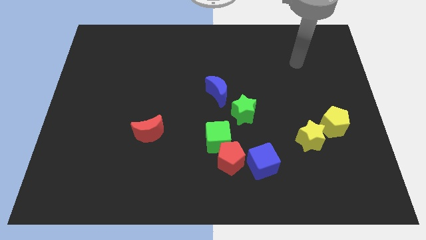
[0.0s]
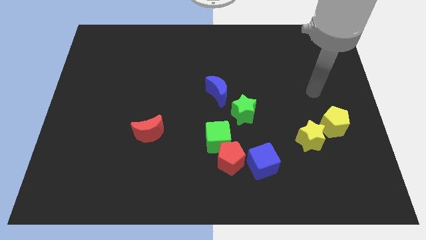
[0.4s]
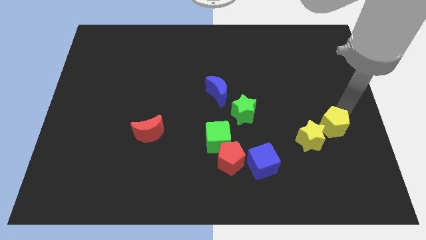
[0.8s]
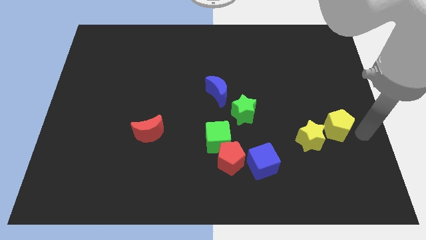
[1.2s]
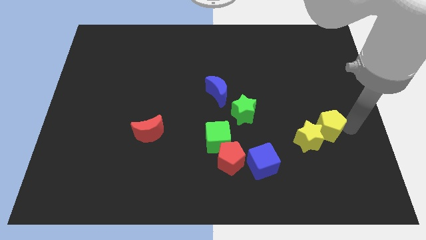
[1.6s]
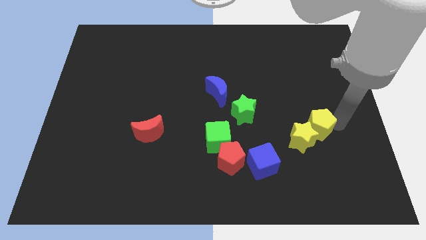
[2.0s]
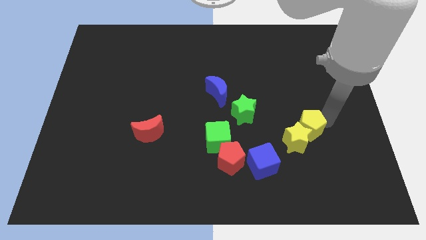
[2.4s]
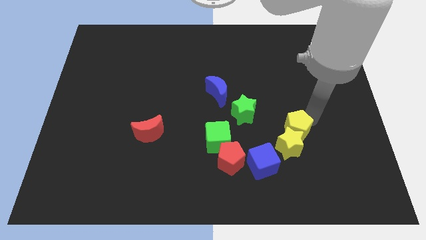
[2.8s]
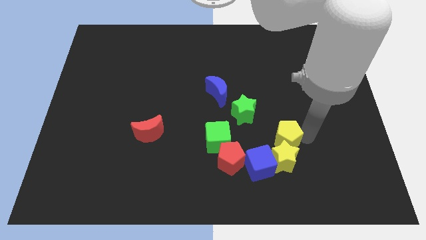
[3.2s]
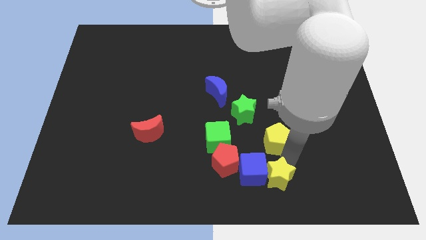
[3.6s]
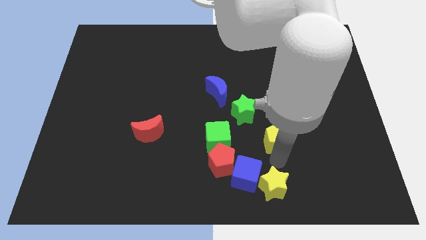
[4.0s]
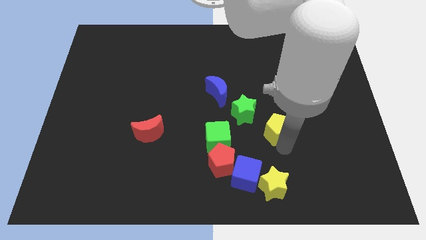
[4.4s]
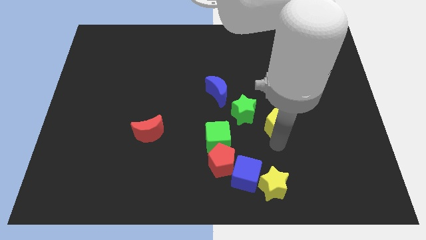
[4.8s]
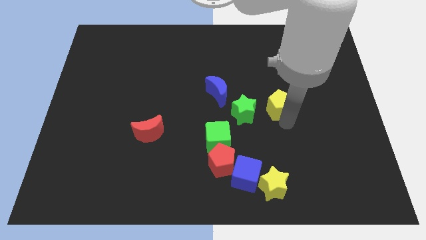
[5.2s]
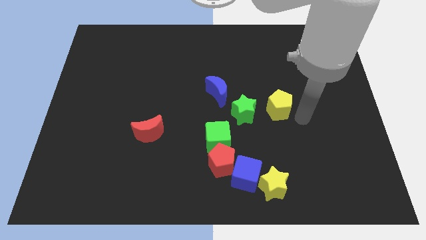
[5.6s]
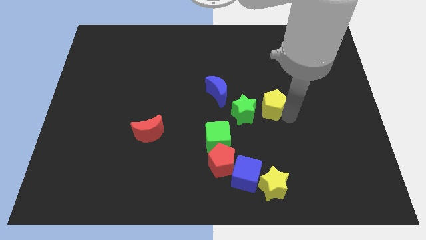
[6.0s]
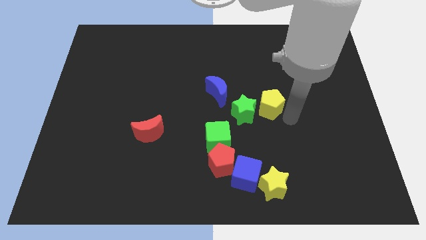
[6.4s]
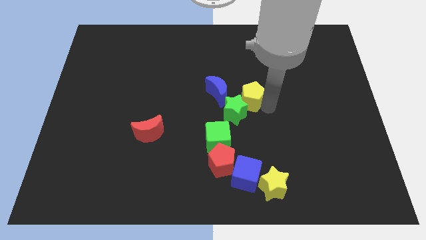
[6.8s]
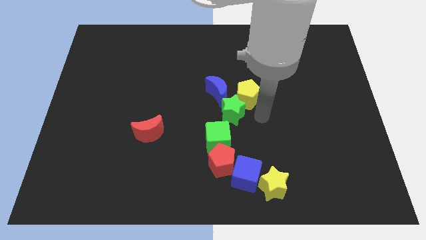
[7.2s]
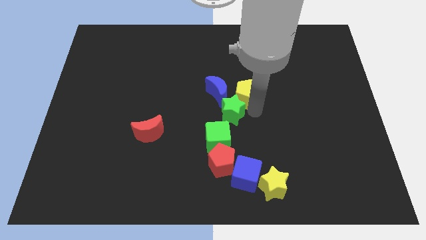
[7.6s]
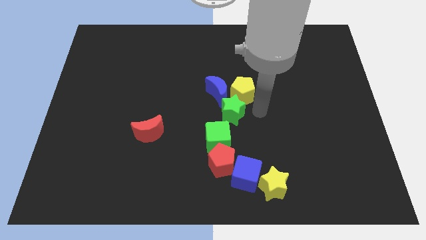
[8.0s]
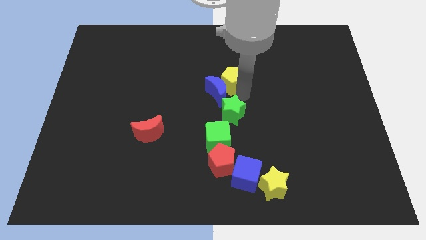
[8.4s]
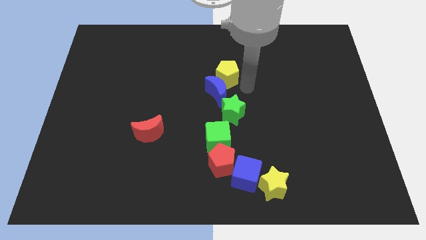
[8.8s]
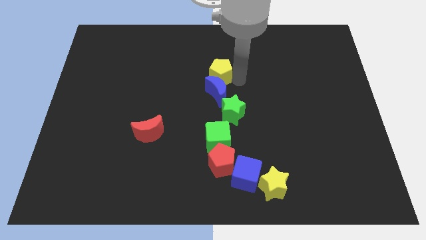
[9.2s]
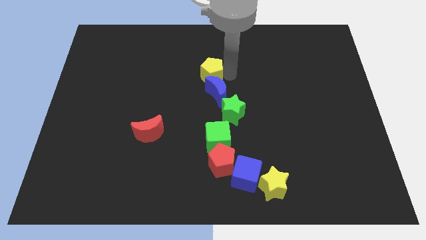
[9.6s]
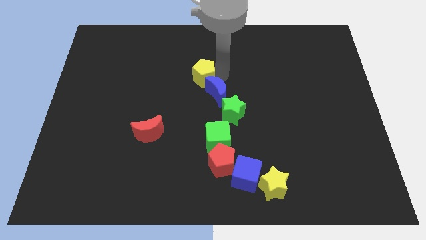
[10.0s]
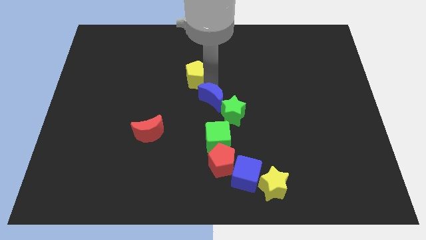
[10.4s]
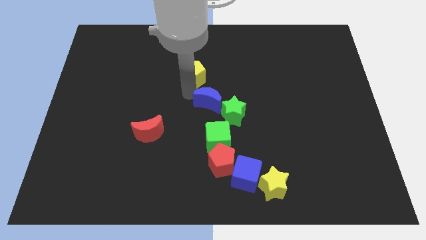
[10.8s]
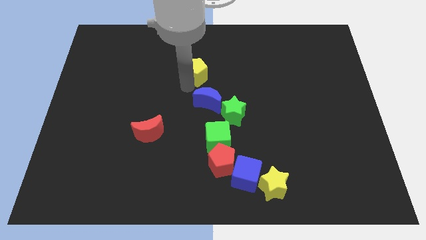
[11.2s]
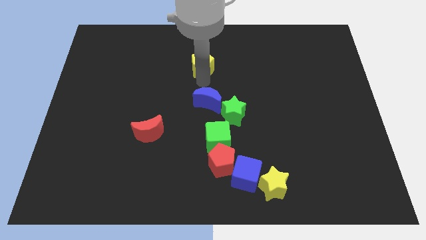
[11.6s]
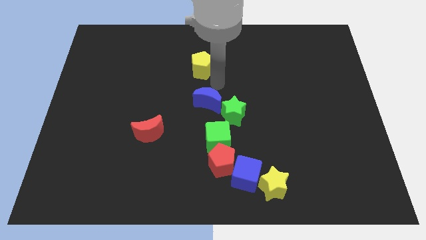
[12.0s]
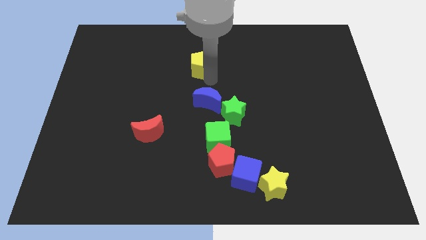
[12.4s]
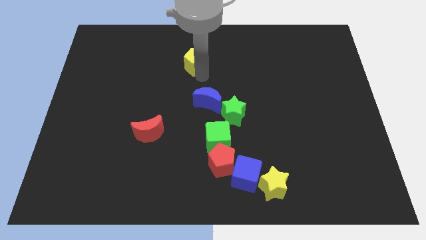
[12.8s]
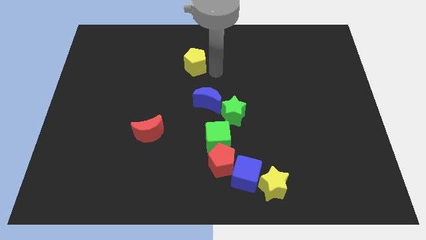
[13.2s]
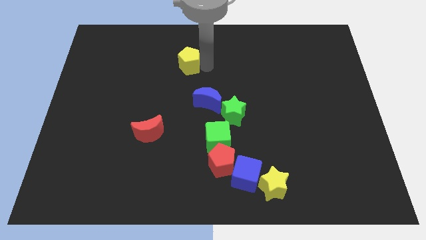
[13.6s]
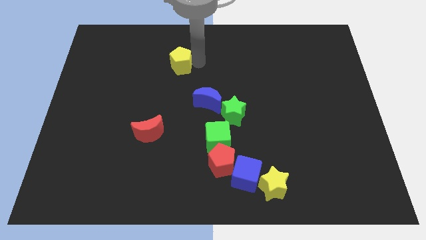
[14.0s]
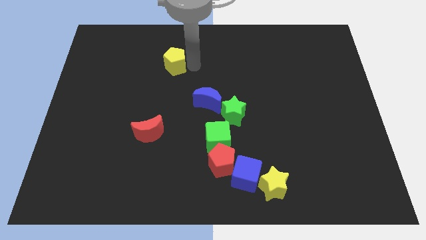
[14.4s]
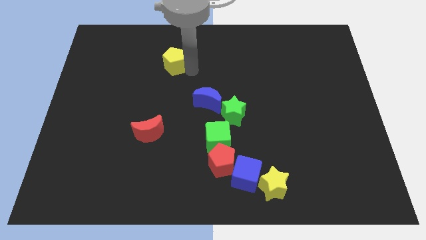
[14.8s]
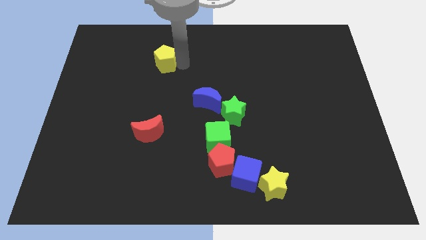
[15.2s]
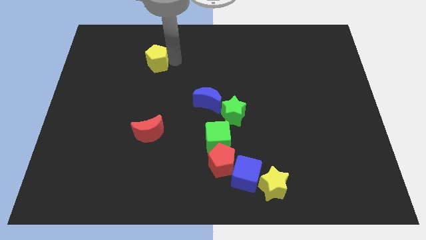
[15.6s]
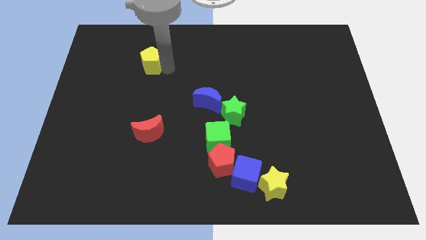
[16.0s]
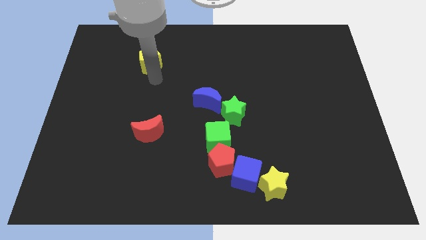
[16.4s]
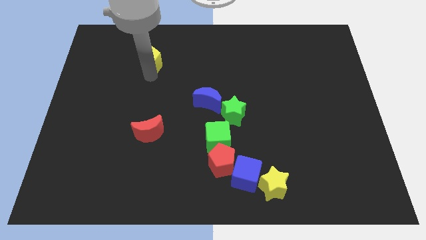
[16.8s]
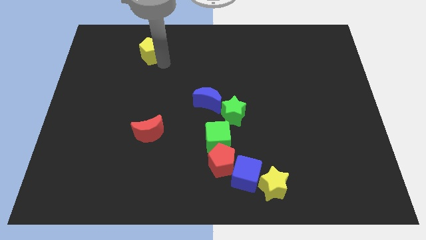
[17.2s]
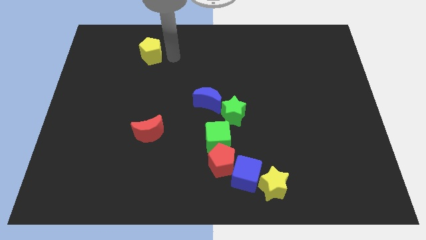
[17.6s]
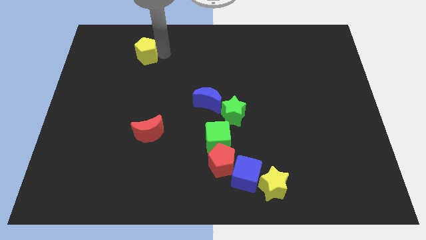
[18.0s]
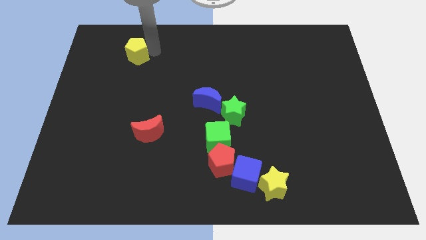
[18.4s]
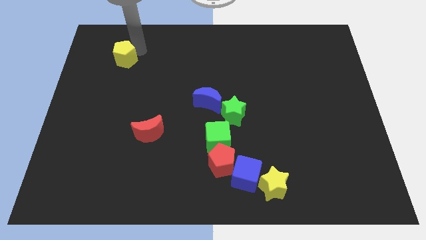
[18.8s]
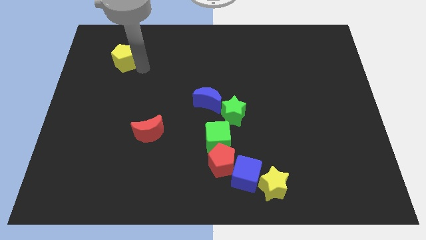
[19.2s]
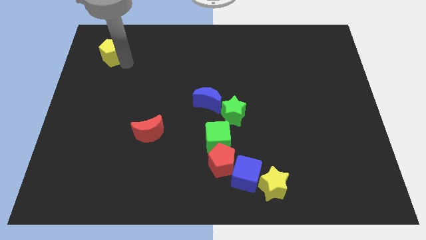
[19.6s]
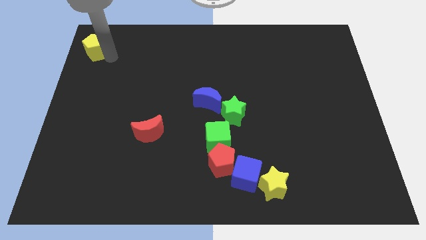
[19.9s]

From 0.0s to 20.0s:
put the yellow pentagon to the top left

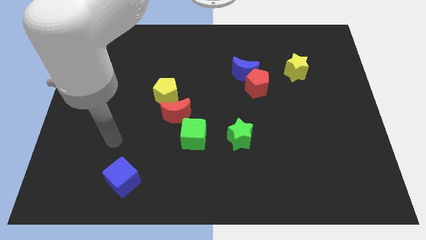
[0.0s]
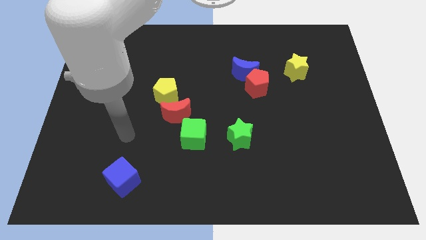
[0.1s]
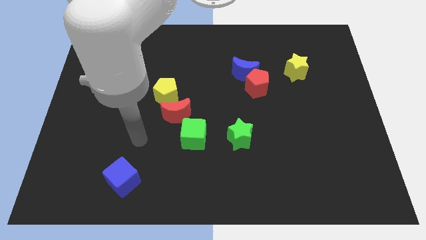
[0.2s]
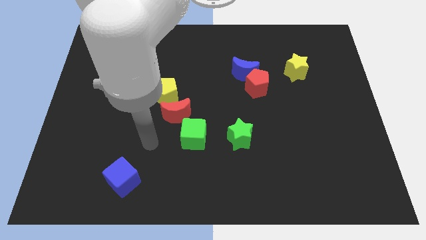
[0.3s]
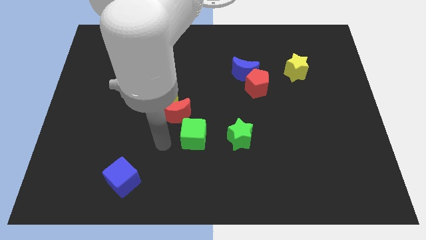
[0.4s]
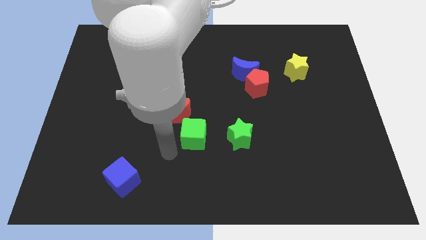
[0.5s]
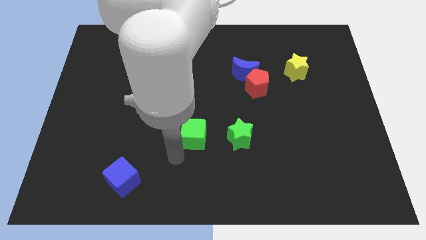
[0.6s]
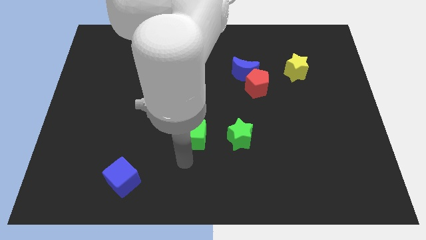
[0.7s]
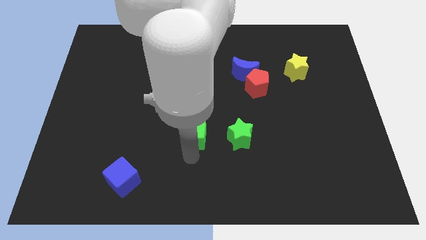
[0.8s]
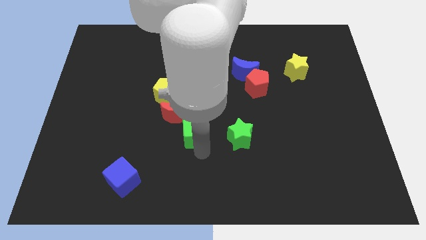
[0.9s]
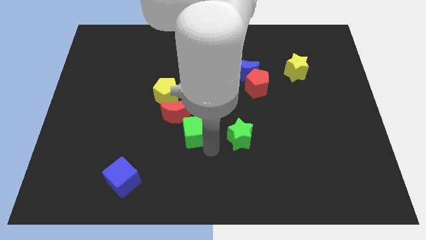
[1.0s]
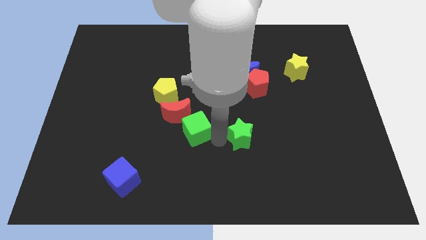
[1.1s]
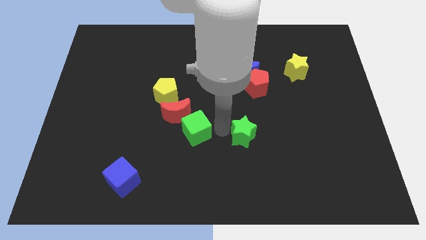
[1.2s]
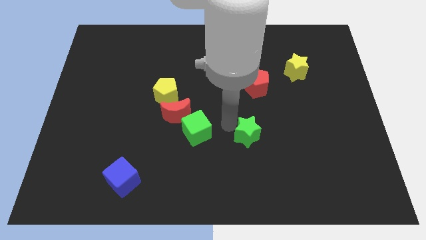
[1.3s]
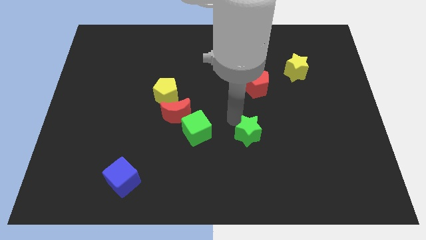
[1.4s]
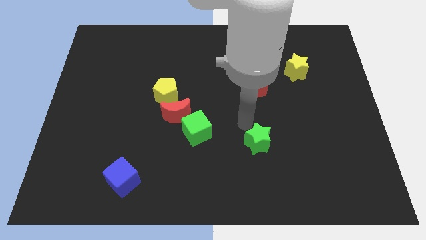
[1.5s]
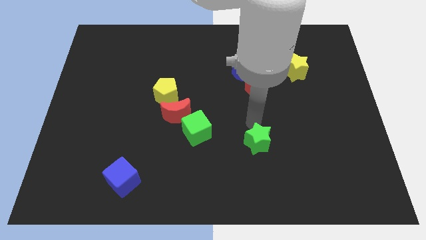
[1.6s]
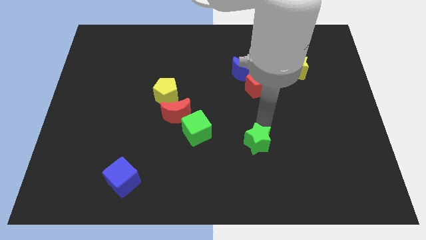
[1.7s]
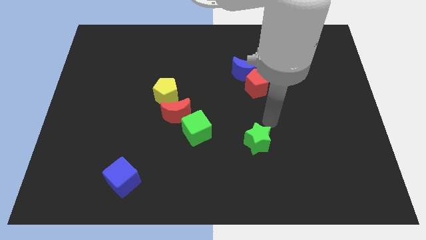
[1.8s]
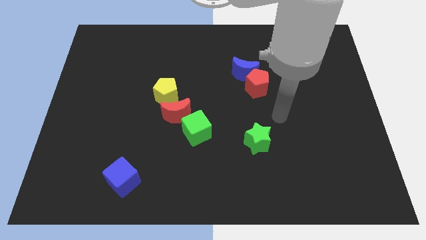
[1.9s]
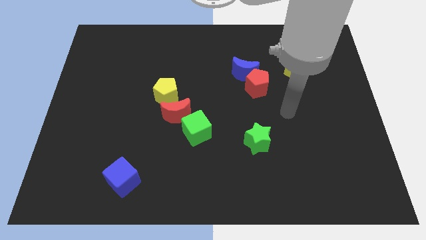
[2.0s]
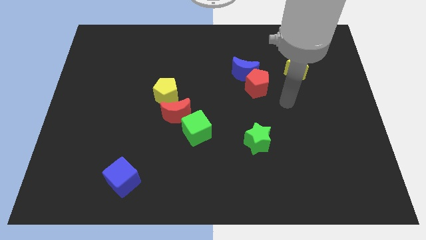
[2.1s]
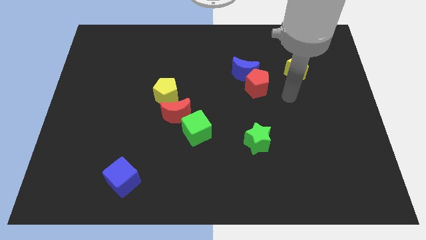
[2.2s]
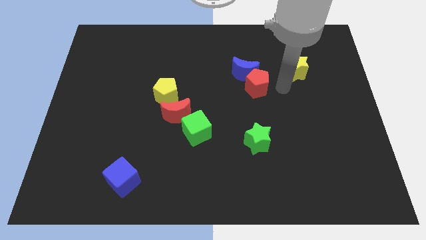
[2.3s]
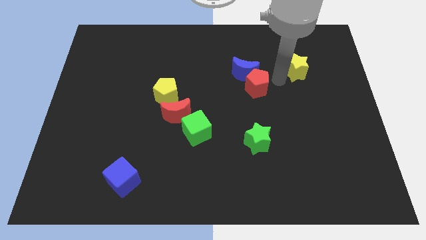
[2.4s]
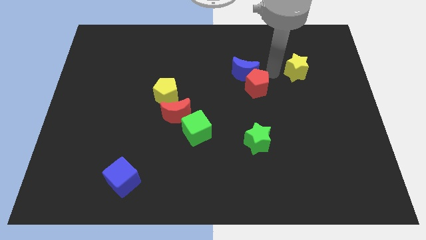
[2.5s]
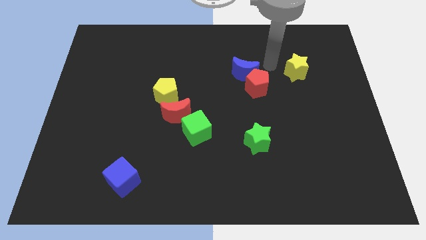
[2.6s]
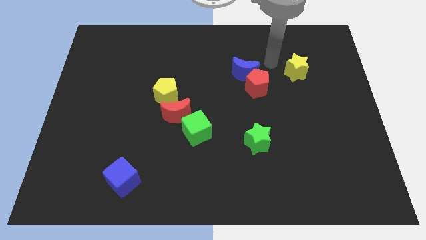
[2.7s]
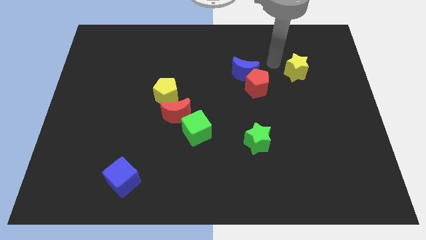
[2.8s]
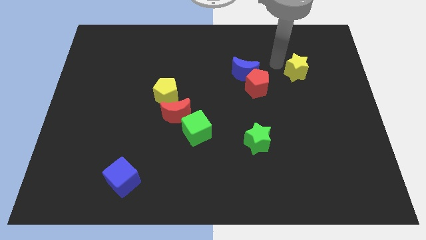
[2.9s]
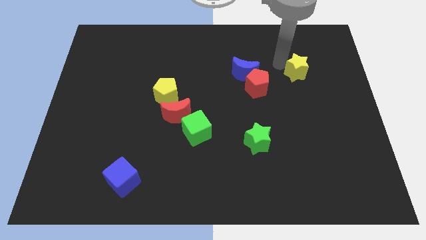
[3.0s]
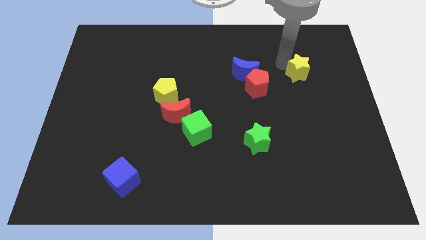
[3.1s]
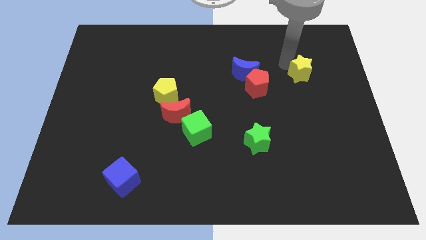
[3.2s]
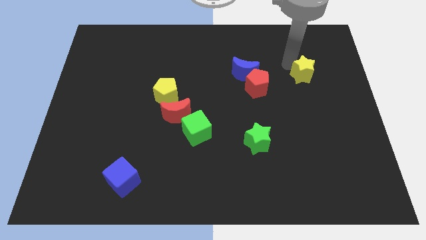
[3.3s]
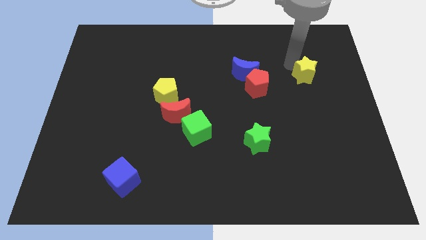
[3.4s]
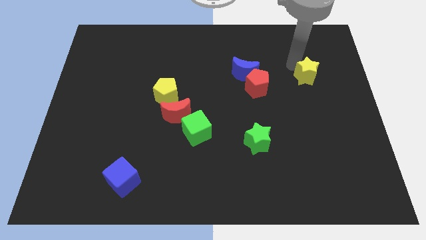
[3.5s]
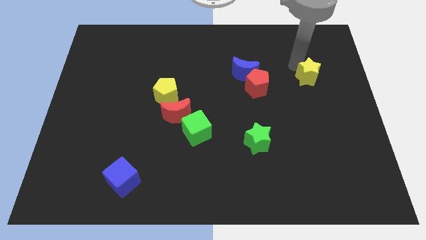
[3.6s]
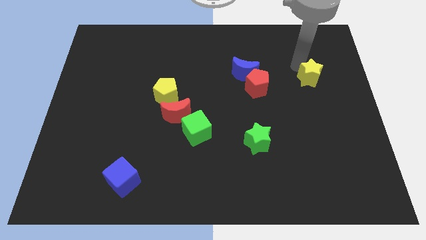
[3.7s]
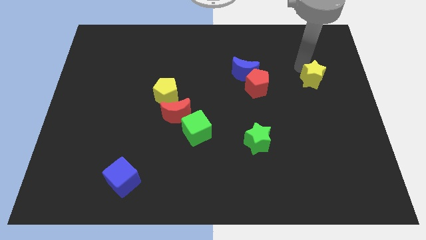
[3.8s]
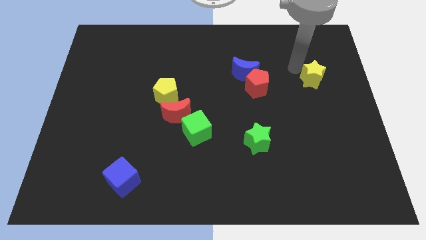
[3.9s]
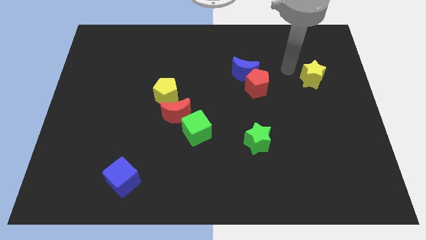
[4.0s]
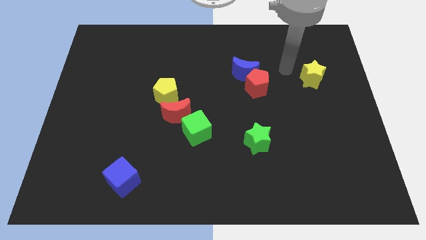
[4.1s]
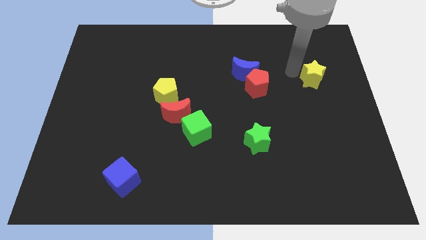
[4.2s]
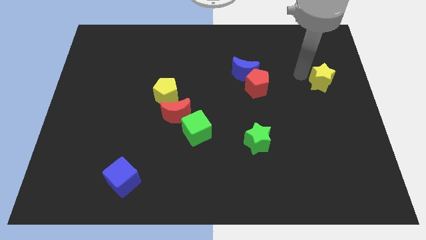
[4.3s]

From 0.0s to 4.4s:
slide the yellow star to the center right
